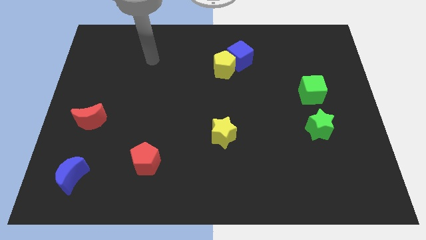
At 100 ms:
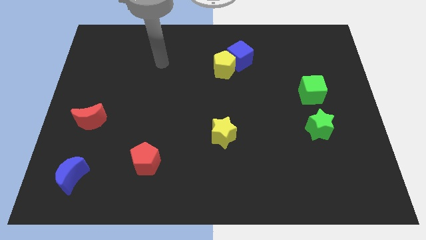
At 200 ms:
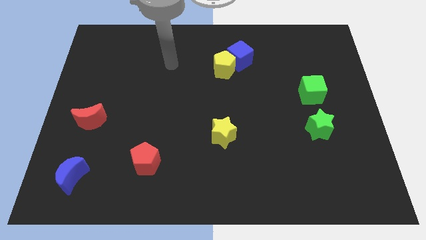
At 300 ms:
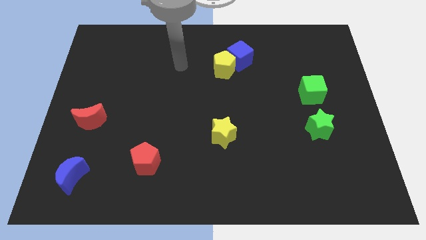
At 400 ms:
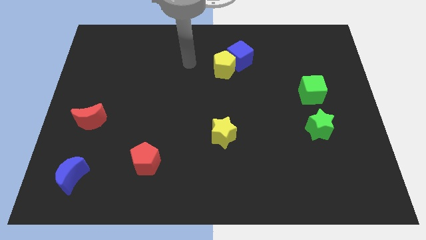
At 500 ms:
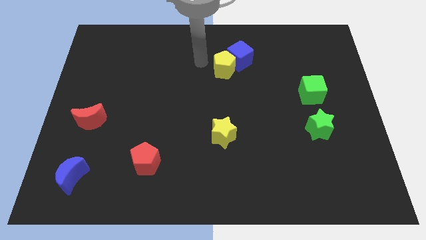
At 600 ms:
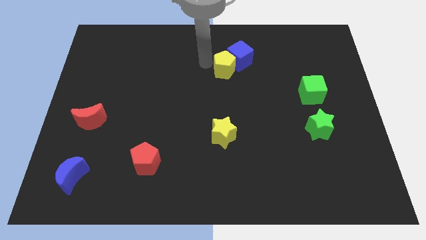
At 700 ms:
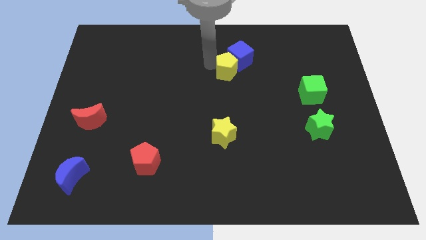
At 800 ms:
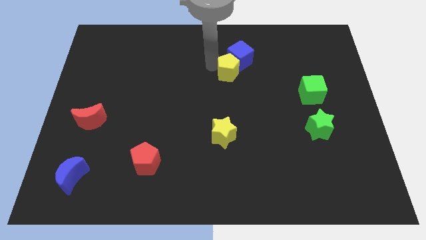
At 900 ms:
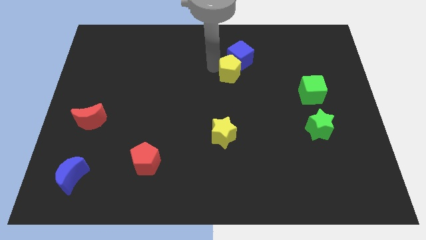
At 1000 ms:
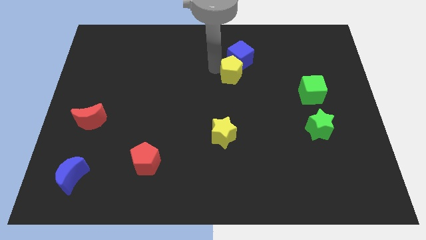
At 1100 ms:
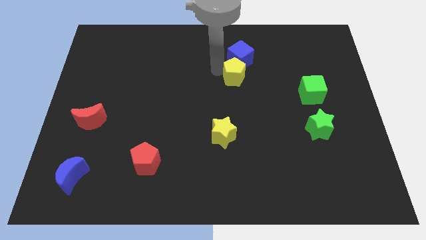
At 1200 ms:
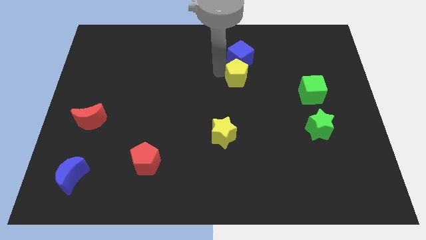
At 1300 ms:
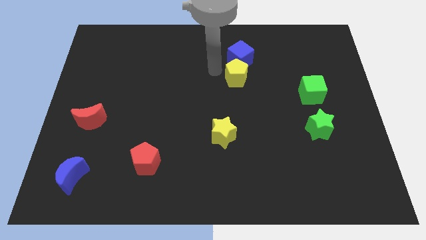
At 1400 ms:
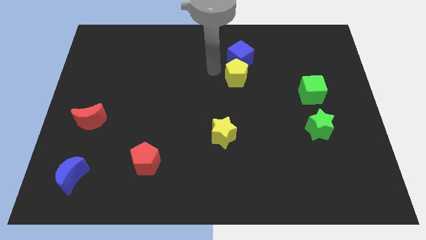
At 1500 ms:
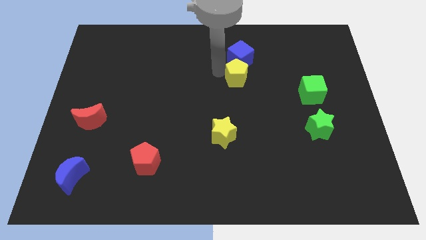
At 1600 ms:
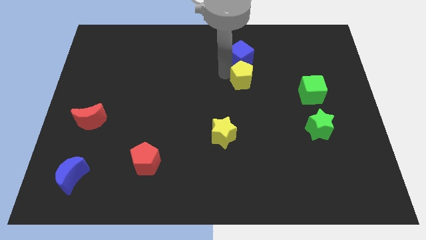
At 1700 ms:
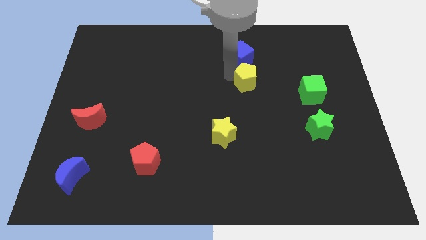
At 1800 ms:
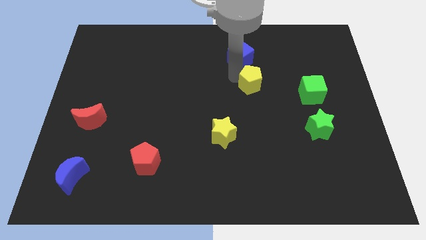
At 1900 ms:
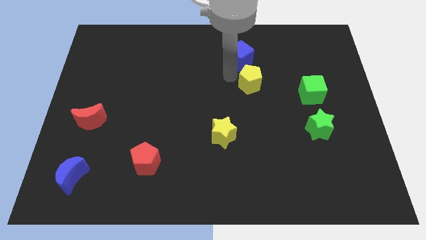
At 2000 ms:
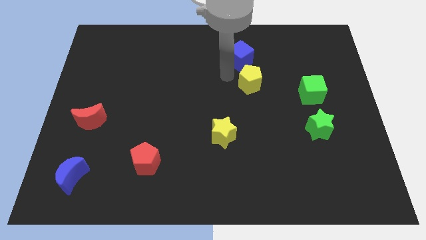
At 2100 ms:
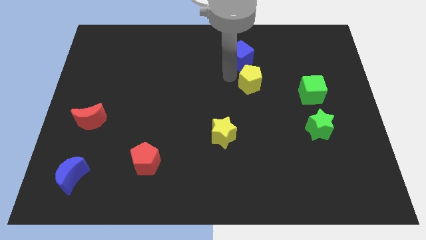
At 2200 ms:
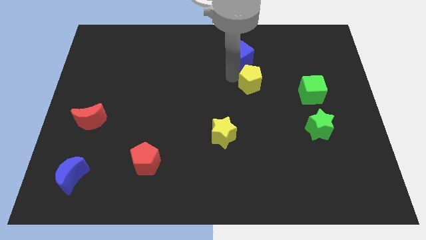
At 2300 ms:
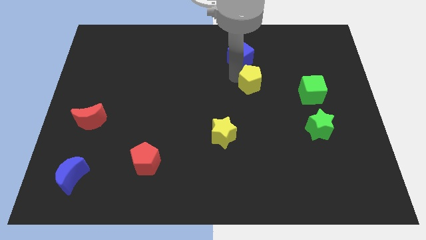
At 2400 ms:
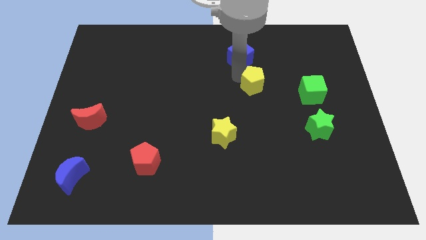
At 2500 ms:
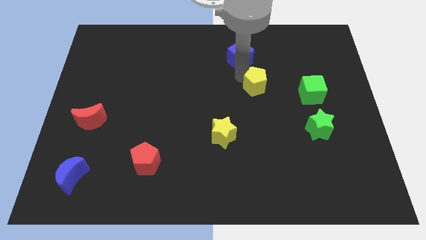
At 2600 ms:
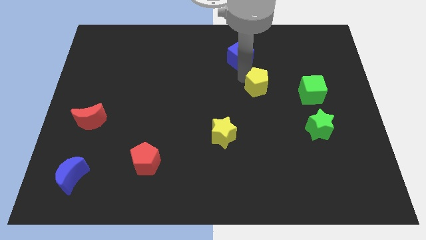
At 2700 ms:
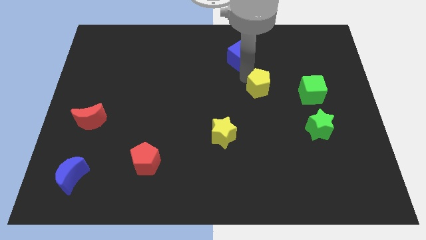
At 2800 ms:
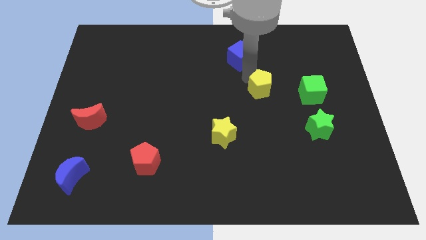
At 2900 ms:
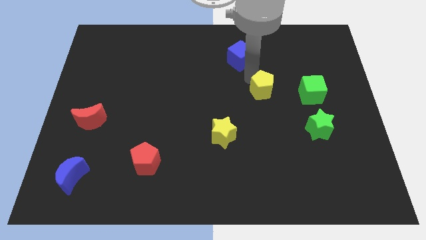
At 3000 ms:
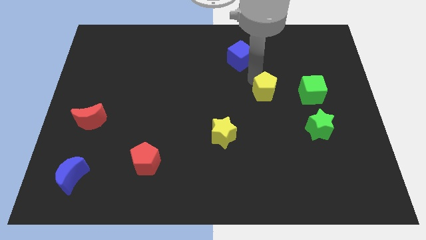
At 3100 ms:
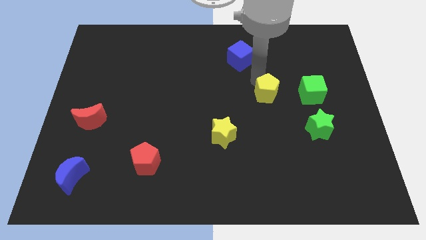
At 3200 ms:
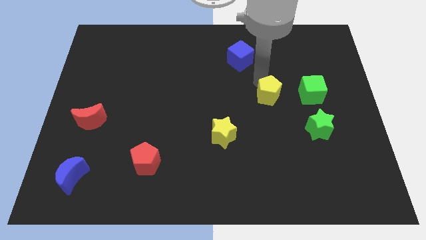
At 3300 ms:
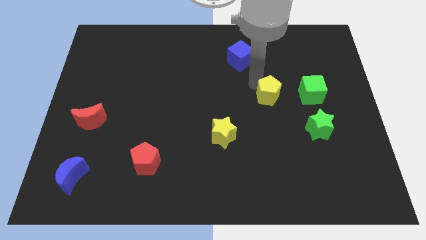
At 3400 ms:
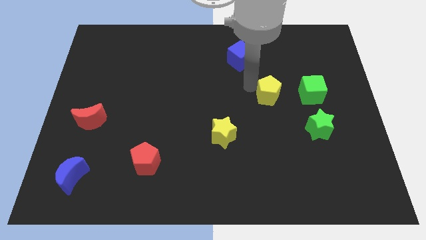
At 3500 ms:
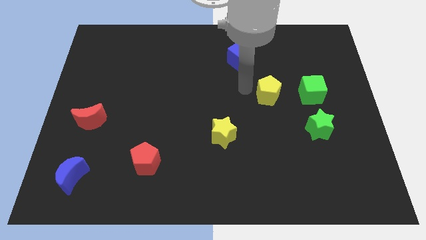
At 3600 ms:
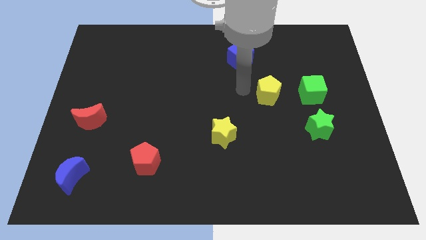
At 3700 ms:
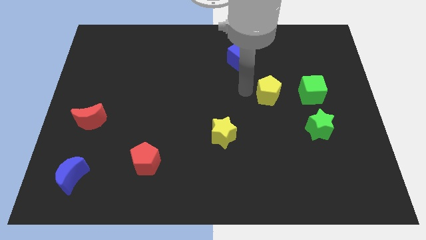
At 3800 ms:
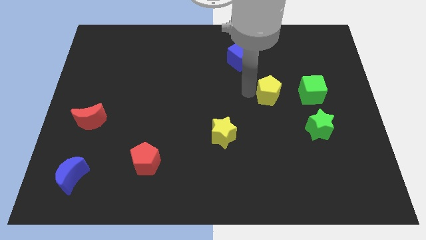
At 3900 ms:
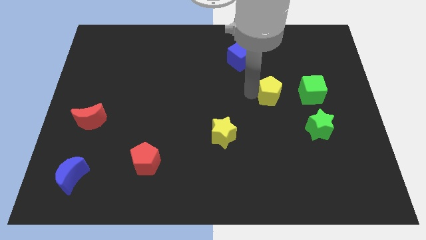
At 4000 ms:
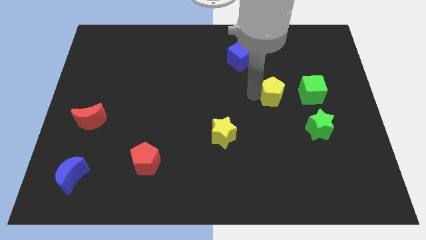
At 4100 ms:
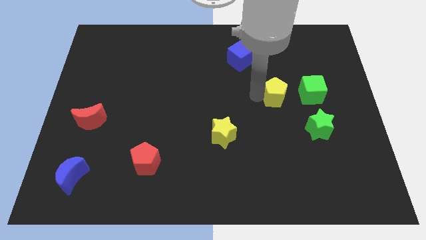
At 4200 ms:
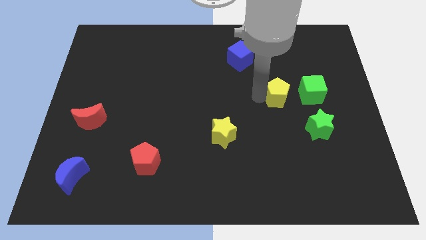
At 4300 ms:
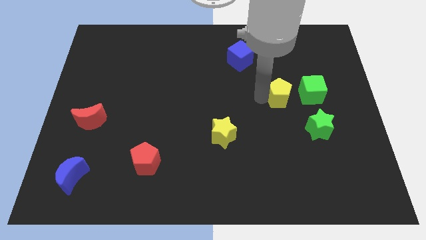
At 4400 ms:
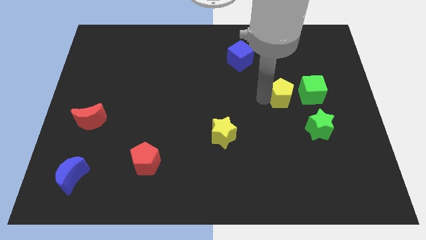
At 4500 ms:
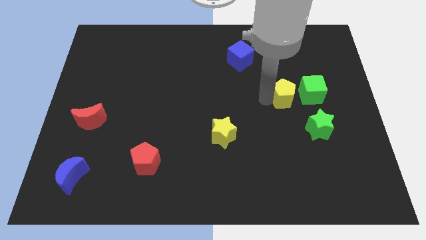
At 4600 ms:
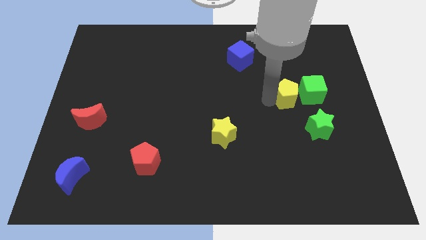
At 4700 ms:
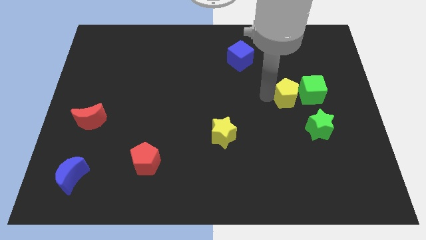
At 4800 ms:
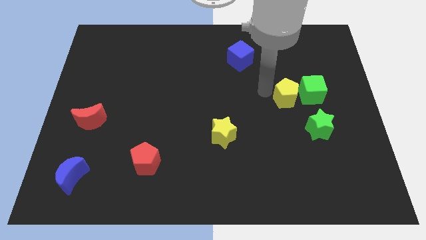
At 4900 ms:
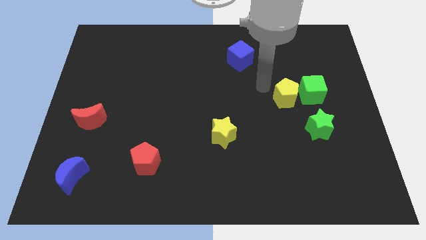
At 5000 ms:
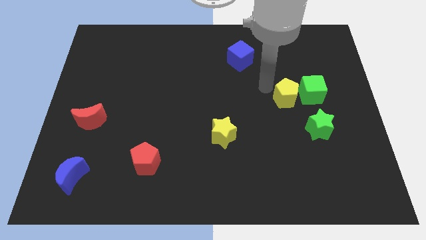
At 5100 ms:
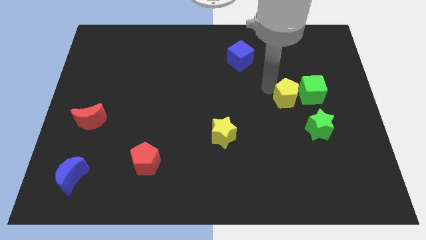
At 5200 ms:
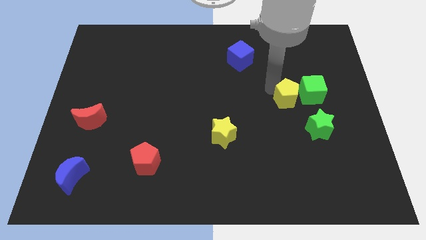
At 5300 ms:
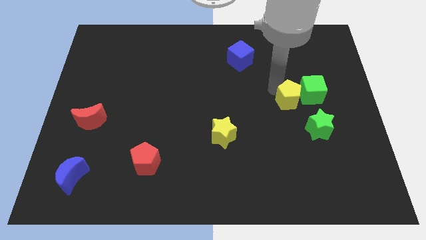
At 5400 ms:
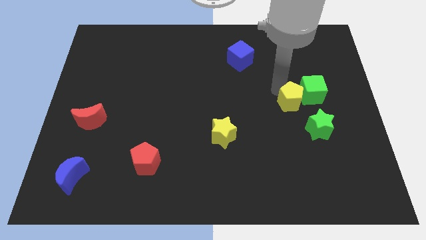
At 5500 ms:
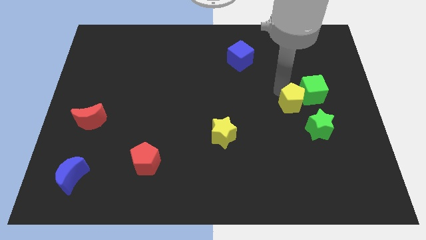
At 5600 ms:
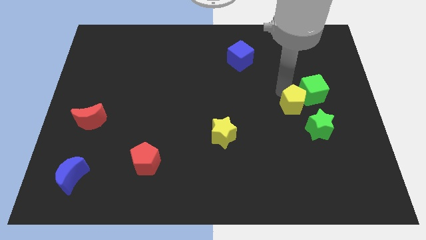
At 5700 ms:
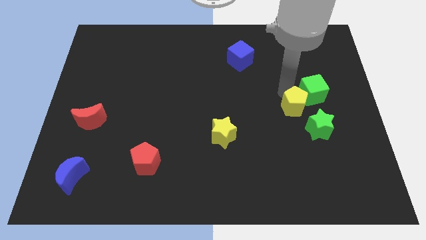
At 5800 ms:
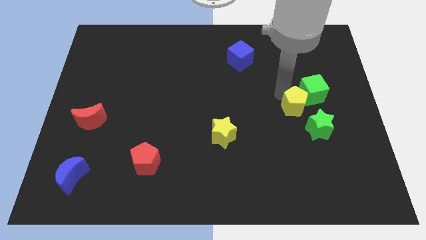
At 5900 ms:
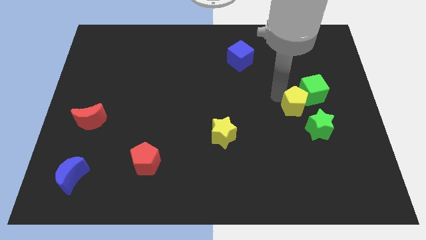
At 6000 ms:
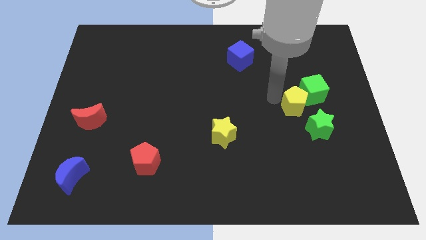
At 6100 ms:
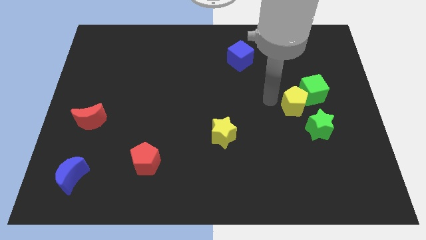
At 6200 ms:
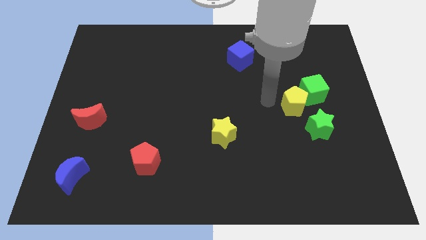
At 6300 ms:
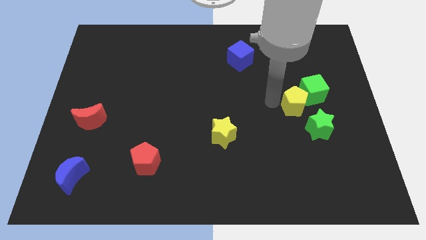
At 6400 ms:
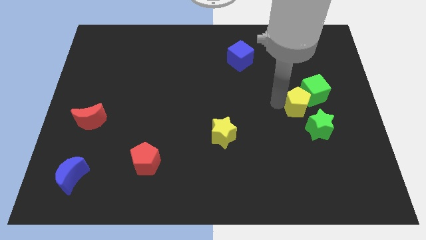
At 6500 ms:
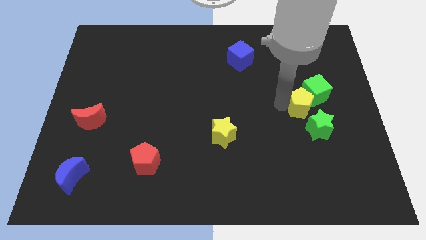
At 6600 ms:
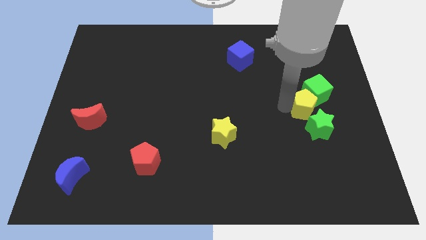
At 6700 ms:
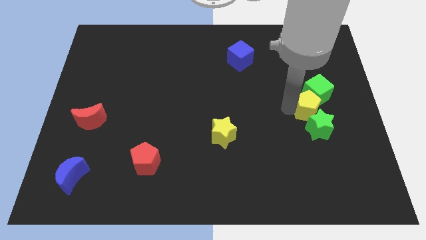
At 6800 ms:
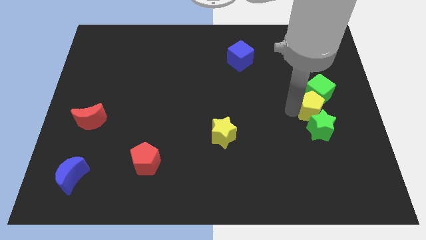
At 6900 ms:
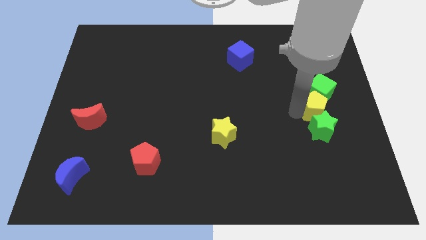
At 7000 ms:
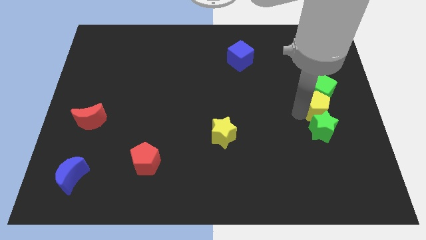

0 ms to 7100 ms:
move the yellow pentagon to the bottom right of the green cube
